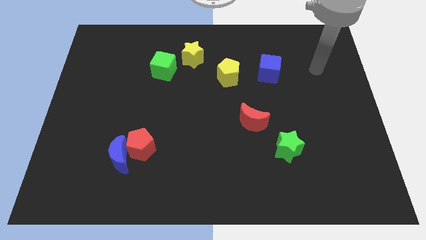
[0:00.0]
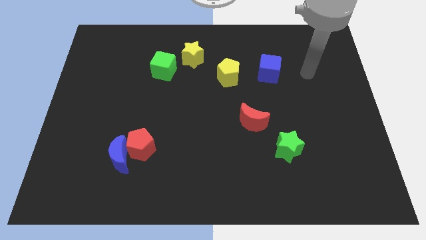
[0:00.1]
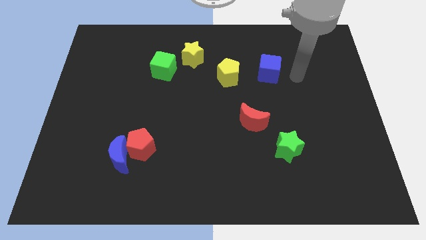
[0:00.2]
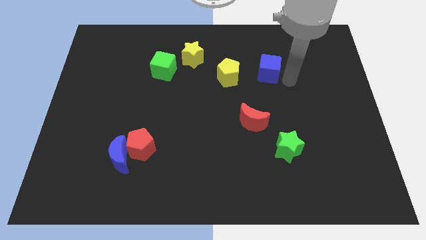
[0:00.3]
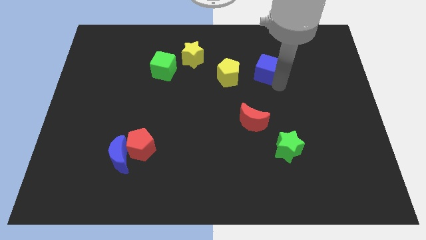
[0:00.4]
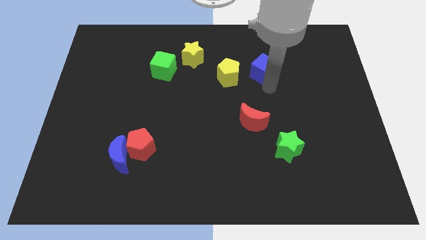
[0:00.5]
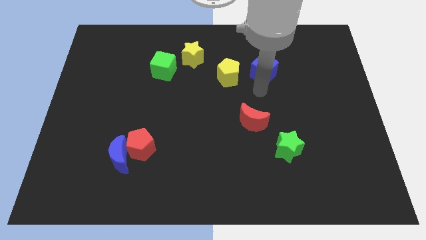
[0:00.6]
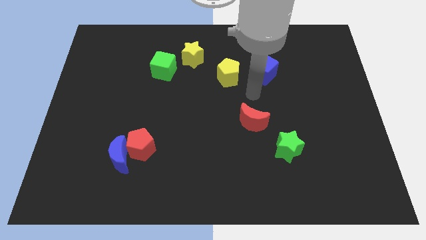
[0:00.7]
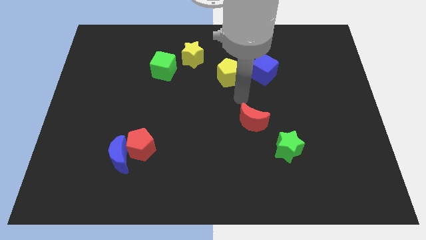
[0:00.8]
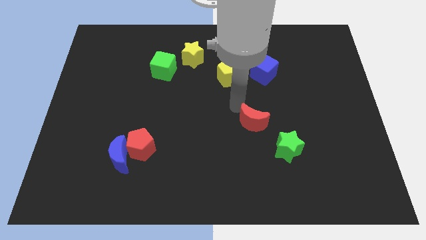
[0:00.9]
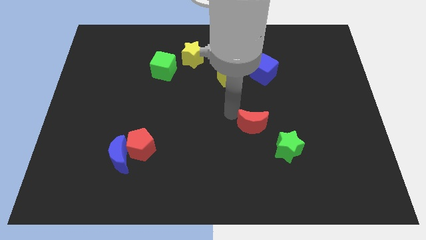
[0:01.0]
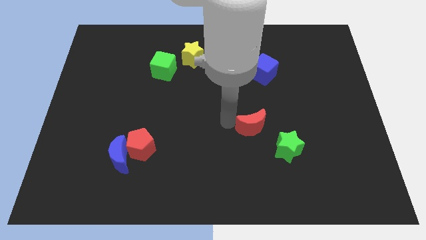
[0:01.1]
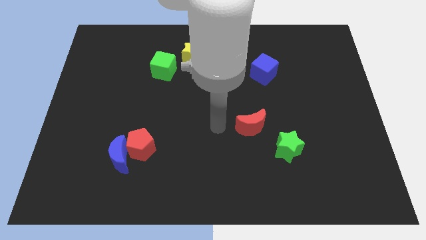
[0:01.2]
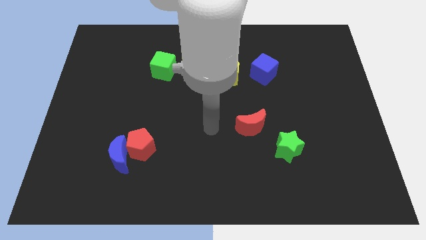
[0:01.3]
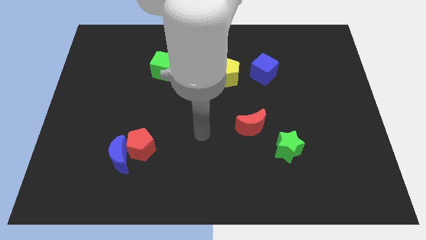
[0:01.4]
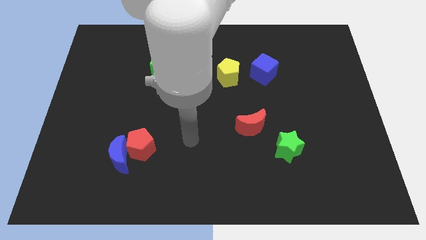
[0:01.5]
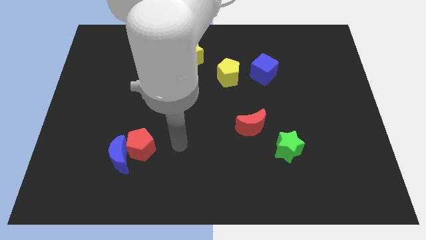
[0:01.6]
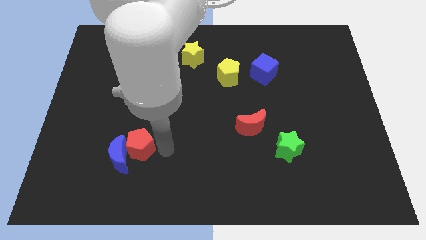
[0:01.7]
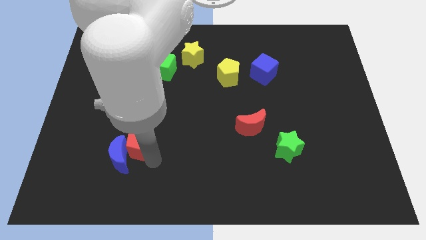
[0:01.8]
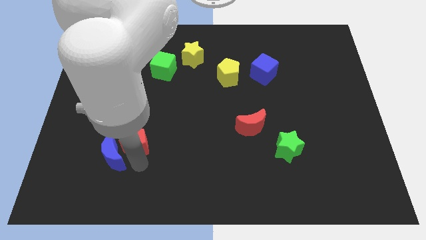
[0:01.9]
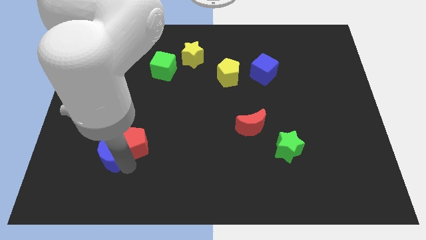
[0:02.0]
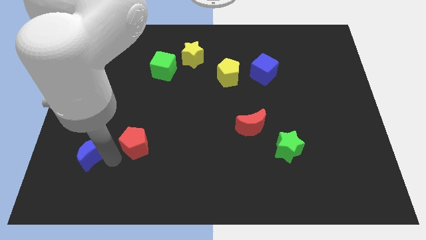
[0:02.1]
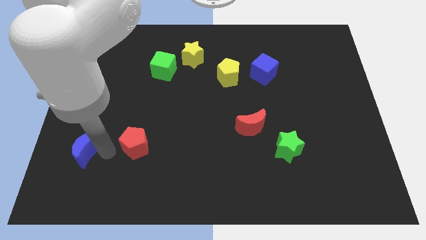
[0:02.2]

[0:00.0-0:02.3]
move the red pentagon away from the blue moon

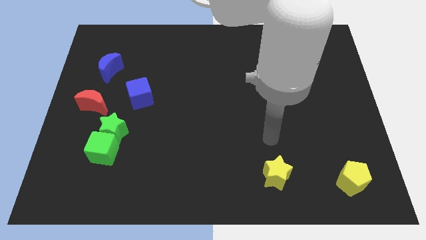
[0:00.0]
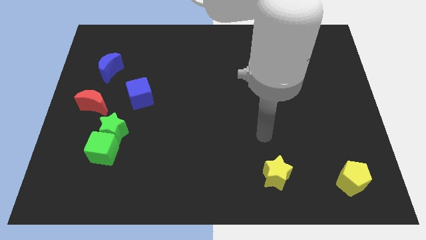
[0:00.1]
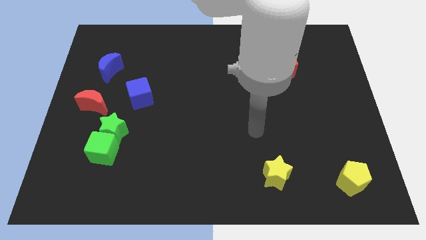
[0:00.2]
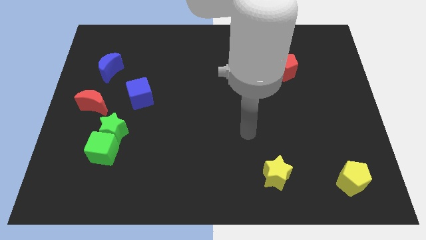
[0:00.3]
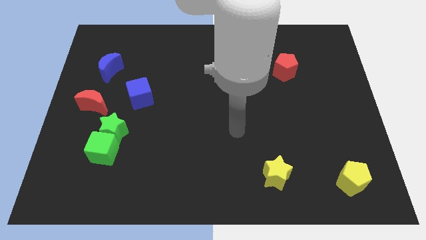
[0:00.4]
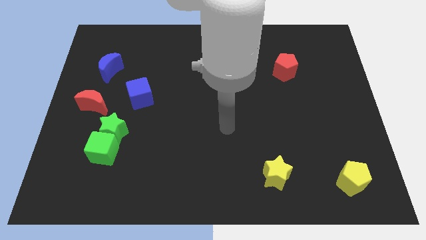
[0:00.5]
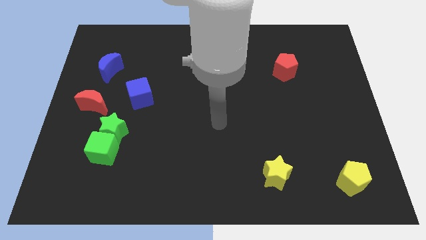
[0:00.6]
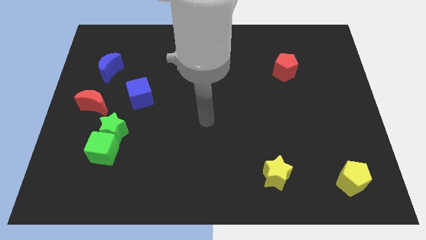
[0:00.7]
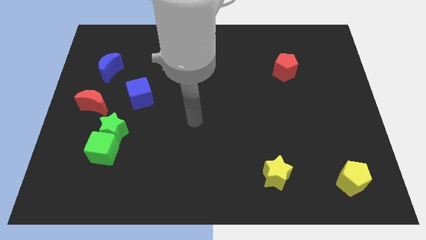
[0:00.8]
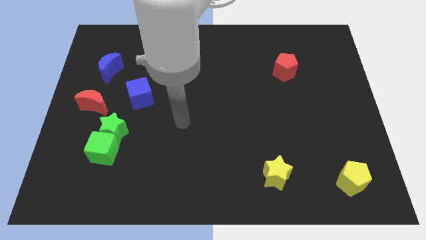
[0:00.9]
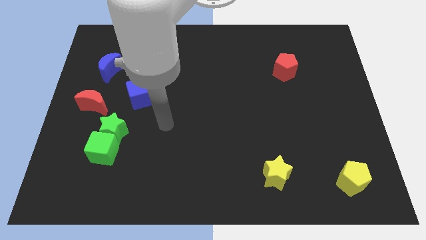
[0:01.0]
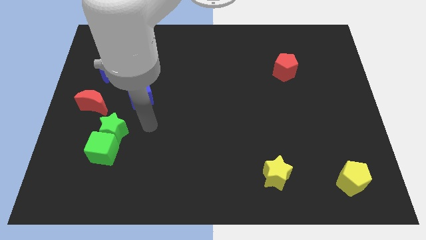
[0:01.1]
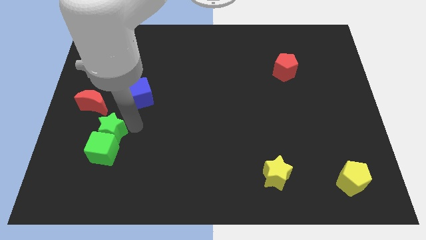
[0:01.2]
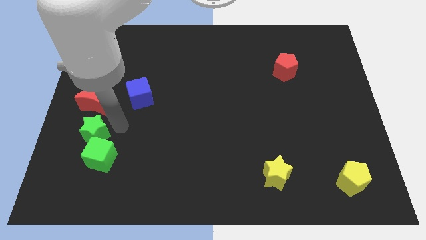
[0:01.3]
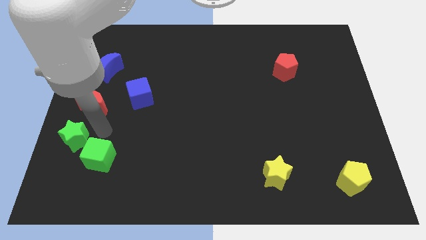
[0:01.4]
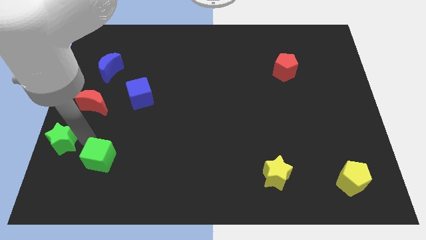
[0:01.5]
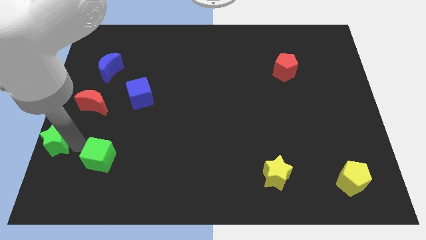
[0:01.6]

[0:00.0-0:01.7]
separate the green cube from the green star

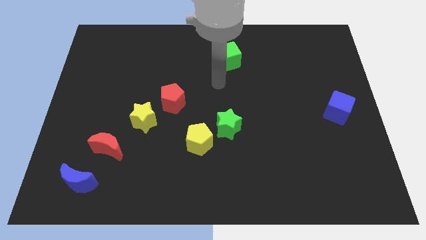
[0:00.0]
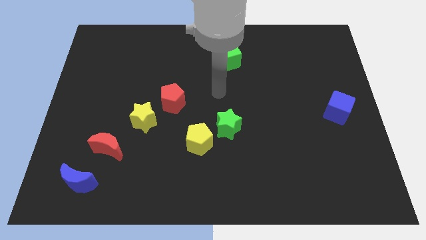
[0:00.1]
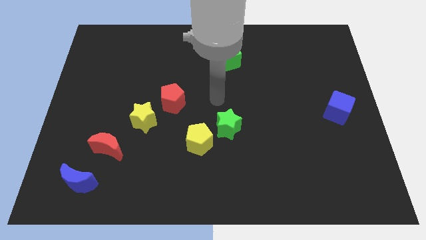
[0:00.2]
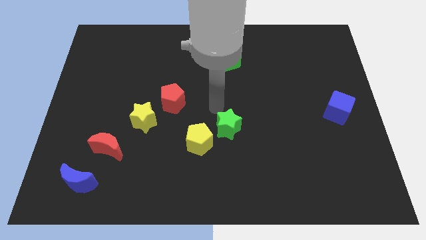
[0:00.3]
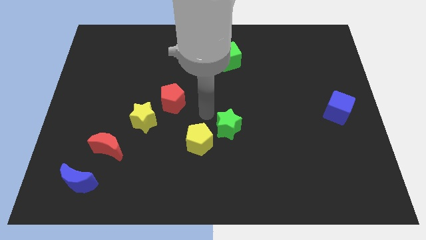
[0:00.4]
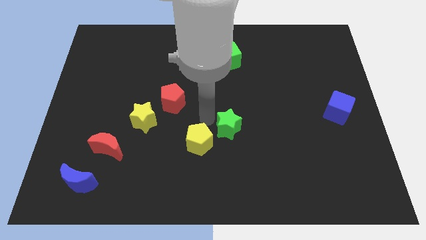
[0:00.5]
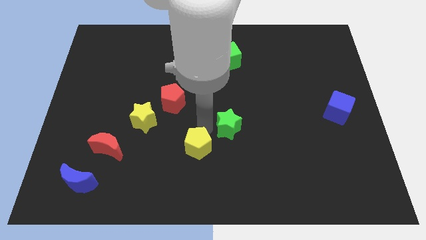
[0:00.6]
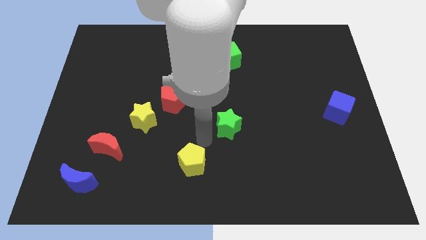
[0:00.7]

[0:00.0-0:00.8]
pull the green star apart from the yellow pentagon

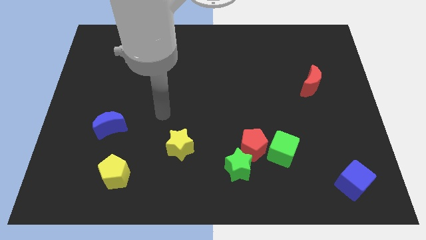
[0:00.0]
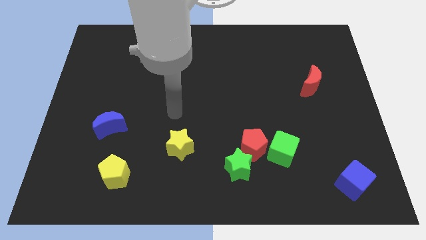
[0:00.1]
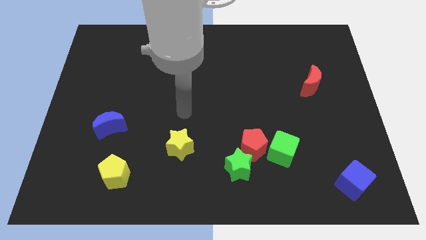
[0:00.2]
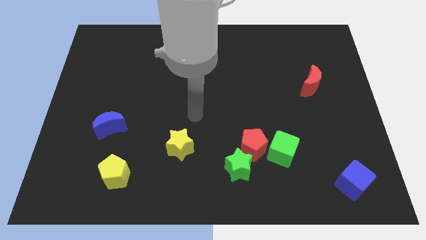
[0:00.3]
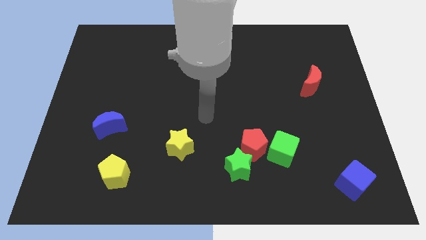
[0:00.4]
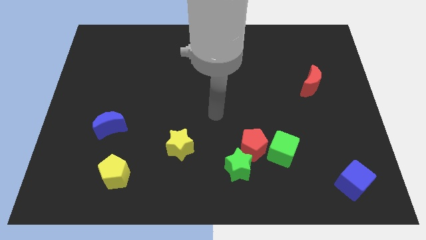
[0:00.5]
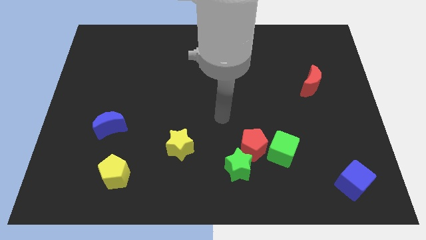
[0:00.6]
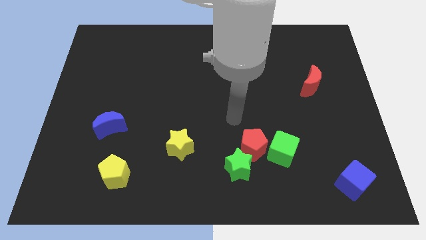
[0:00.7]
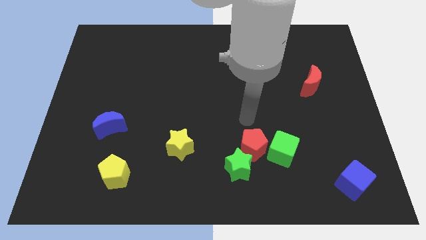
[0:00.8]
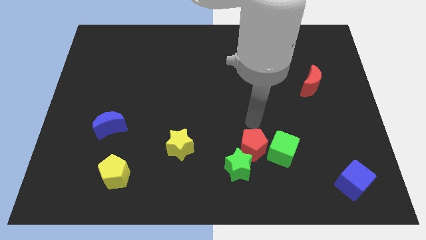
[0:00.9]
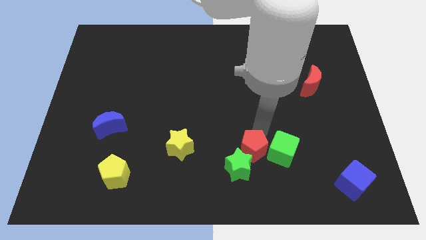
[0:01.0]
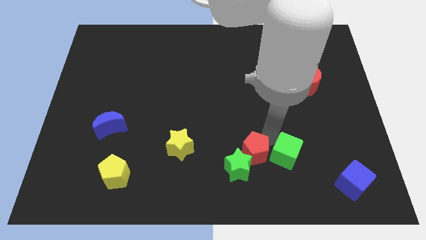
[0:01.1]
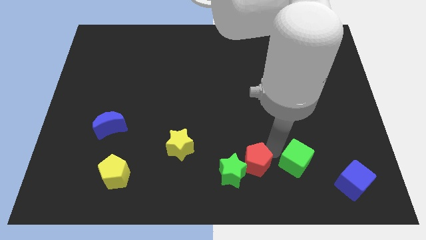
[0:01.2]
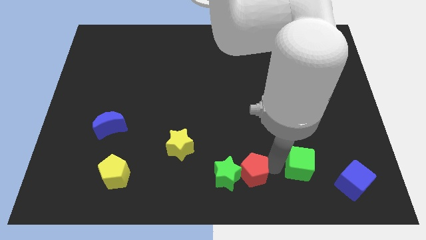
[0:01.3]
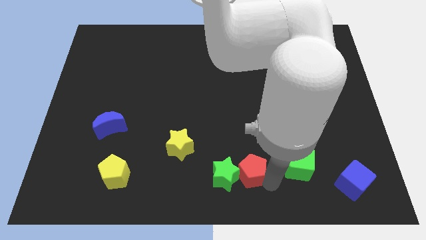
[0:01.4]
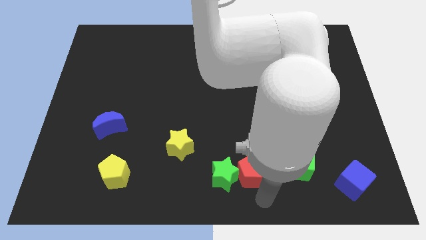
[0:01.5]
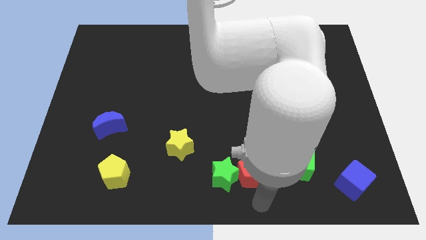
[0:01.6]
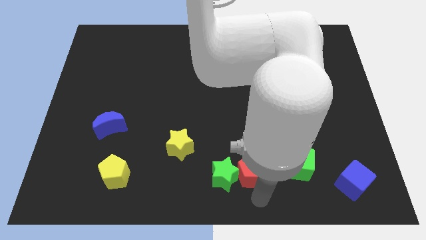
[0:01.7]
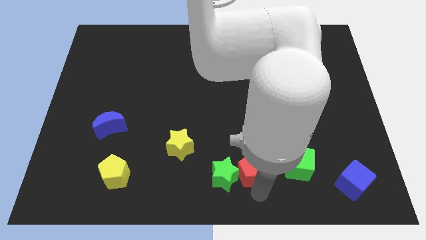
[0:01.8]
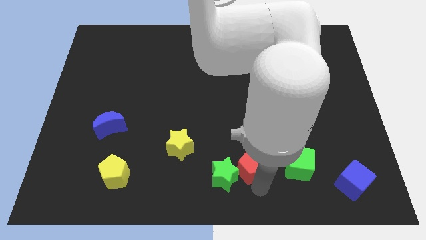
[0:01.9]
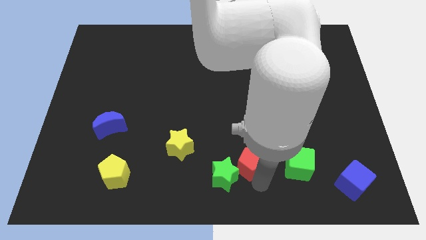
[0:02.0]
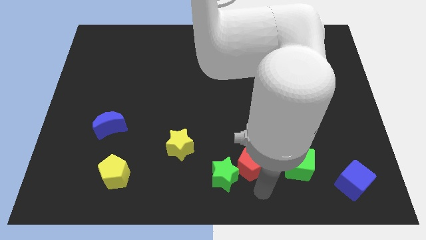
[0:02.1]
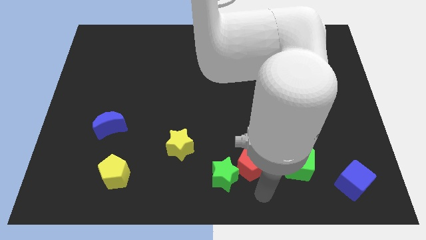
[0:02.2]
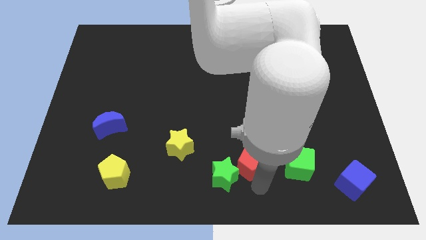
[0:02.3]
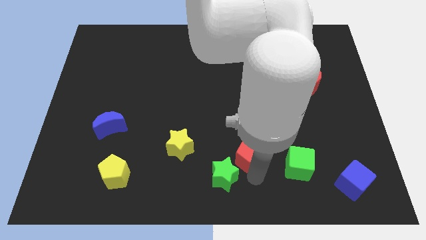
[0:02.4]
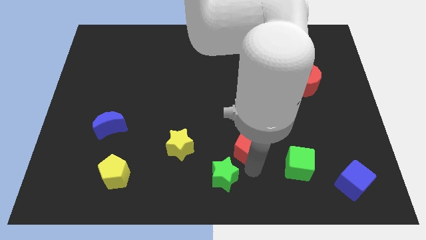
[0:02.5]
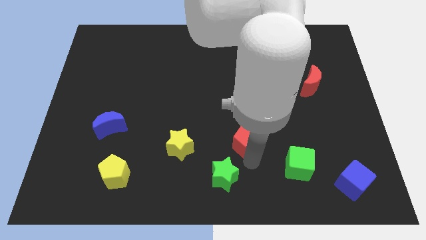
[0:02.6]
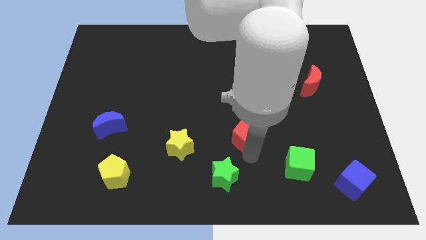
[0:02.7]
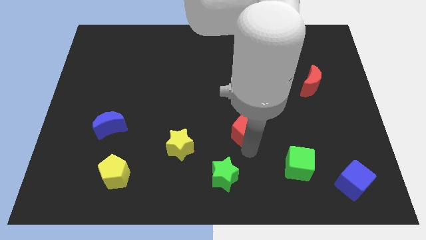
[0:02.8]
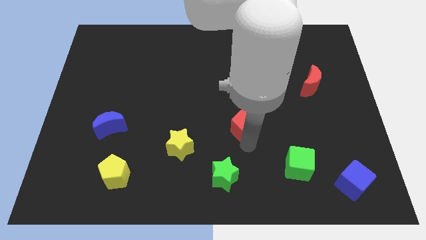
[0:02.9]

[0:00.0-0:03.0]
separate the red pentagon from the green star and green cube

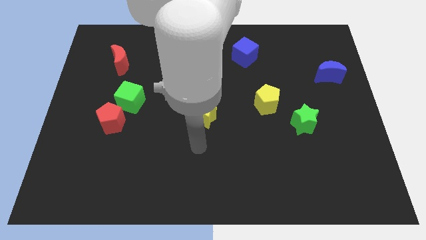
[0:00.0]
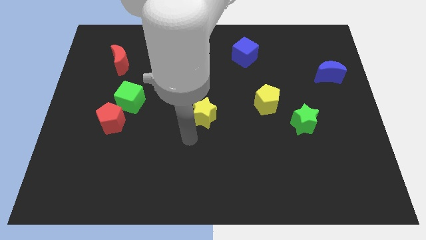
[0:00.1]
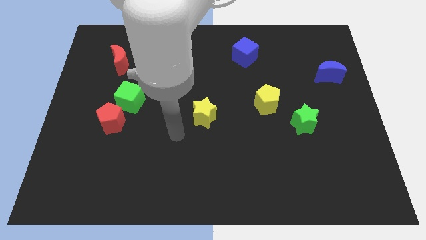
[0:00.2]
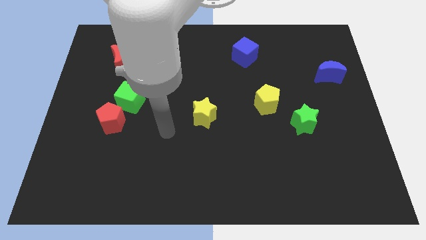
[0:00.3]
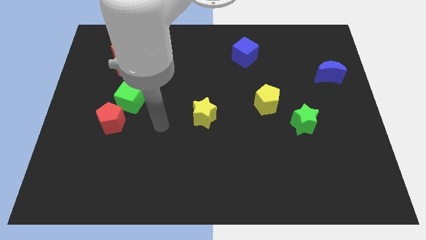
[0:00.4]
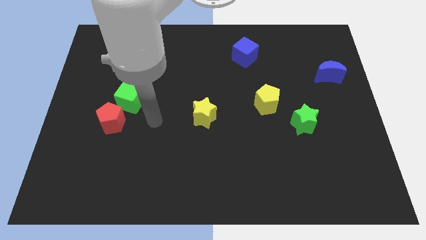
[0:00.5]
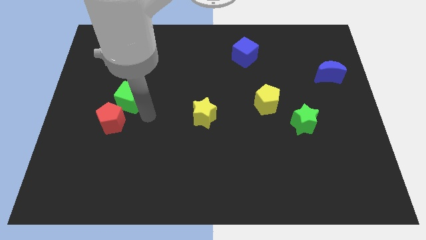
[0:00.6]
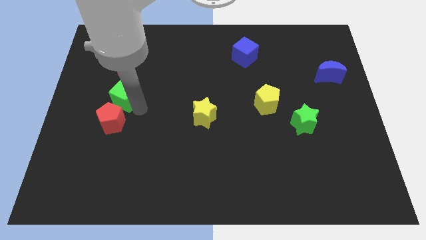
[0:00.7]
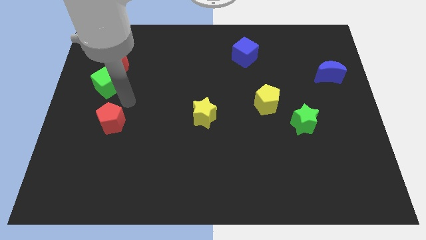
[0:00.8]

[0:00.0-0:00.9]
separate the red pentagon from the green cube

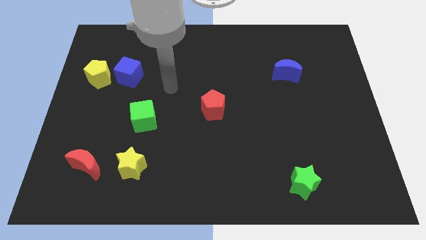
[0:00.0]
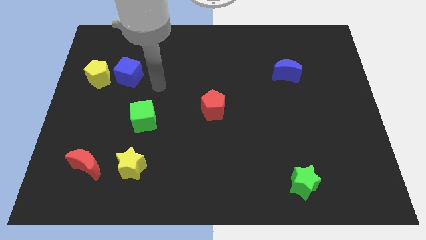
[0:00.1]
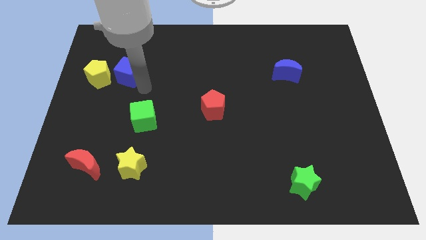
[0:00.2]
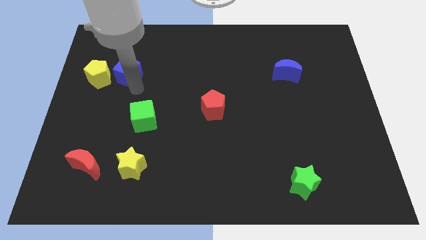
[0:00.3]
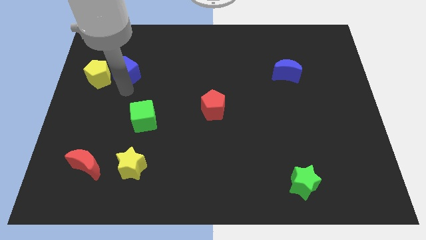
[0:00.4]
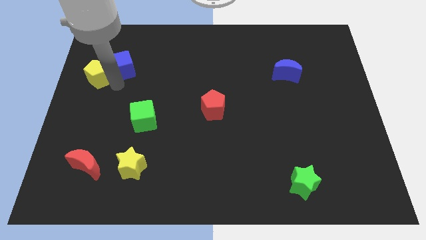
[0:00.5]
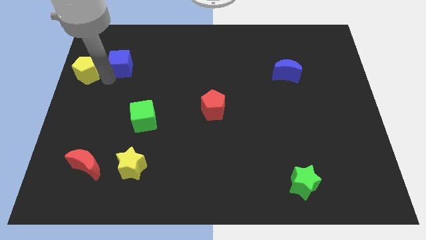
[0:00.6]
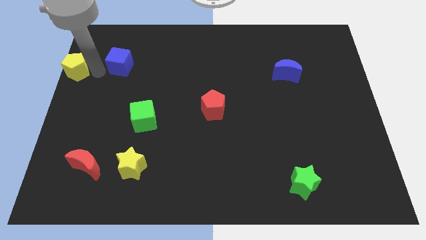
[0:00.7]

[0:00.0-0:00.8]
move the blue cube away from the yellow pentagon
